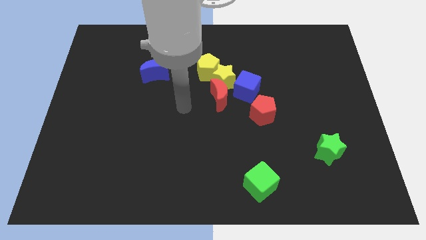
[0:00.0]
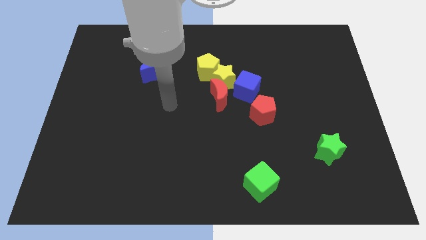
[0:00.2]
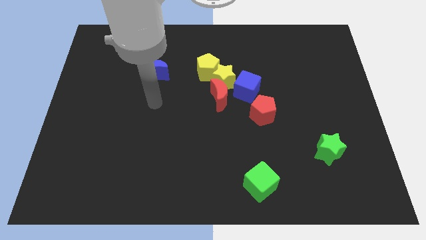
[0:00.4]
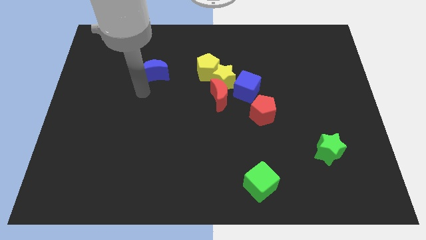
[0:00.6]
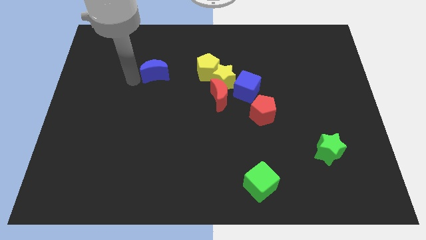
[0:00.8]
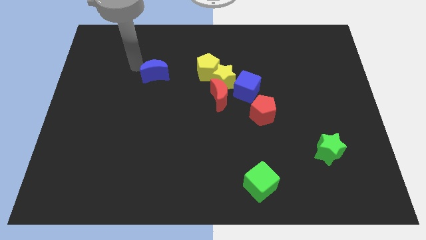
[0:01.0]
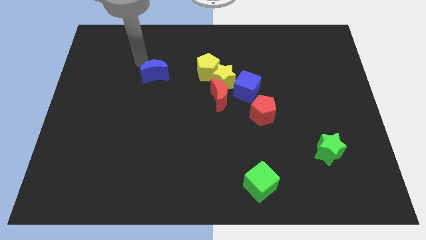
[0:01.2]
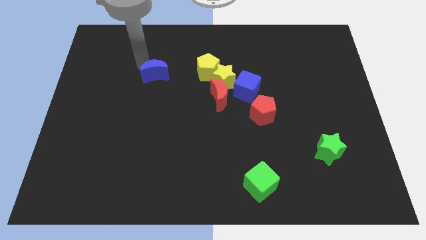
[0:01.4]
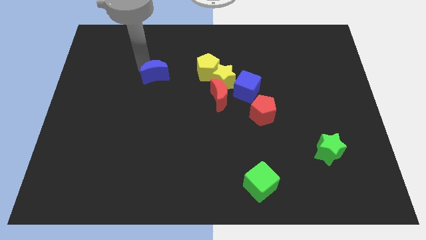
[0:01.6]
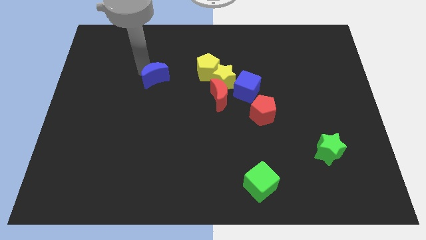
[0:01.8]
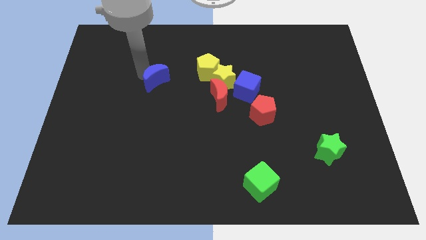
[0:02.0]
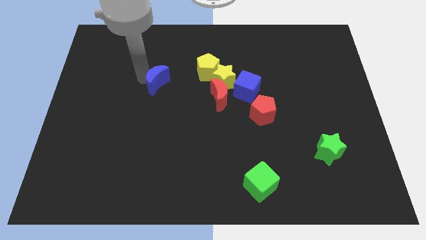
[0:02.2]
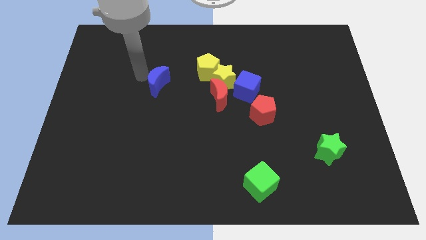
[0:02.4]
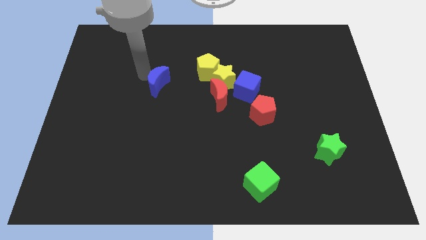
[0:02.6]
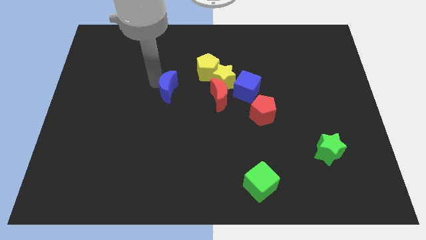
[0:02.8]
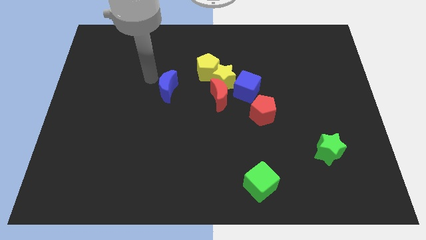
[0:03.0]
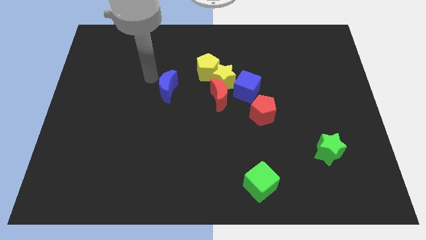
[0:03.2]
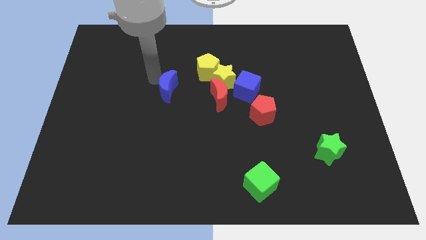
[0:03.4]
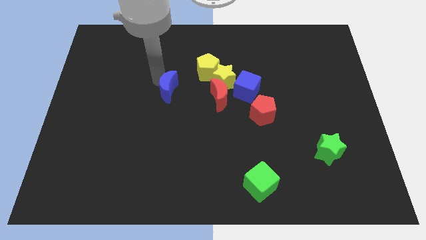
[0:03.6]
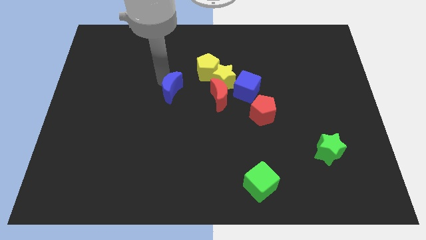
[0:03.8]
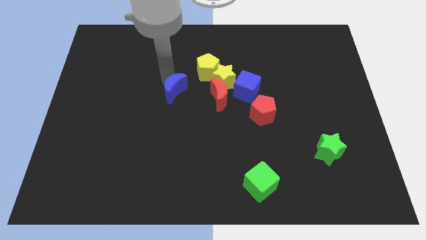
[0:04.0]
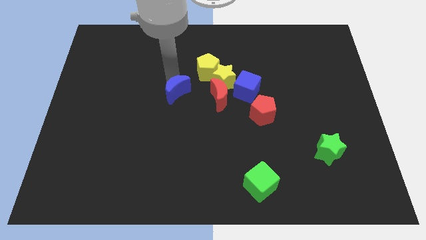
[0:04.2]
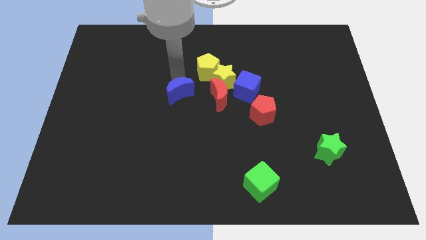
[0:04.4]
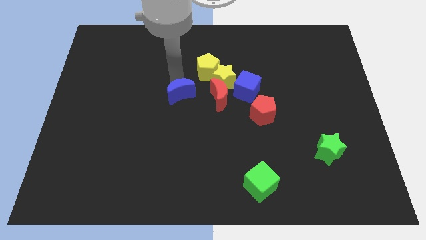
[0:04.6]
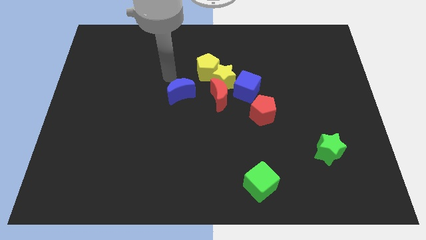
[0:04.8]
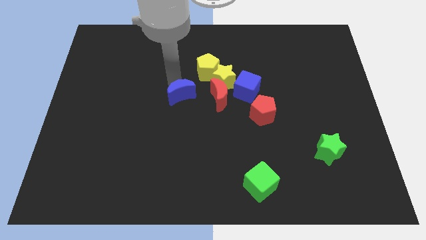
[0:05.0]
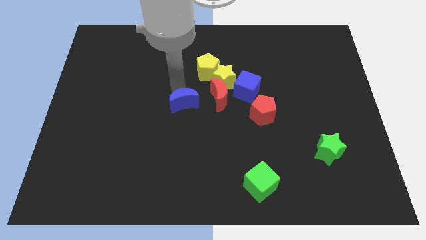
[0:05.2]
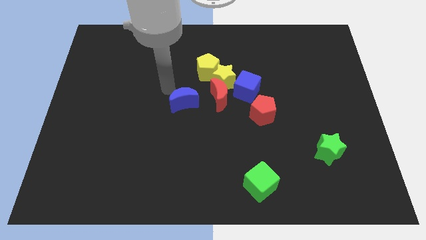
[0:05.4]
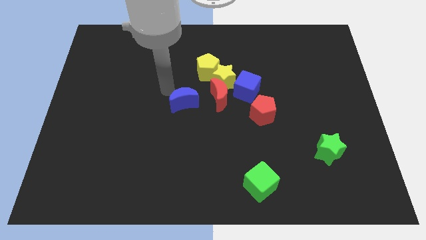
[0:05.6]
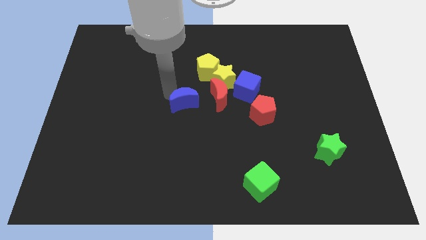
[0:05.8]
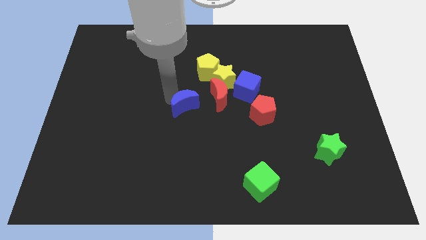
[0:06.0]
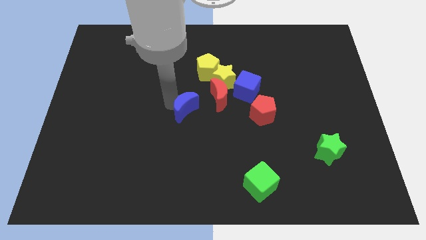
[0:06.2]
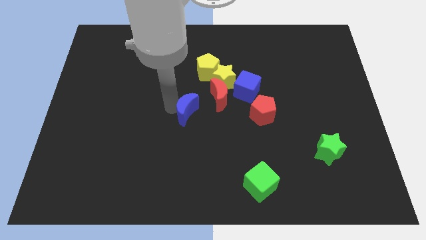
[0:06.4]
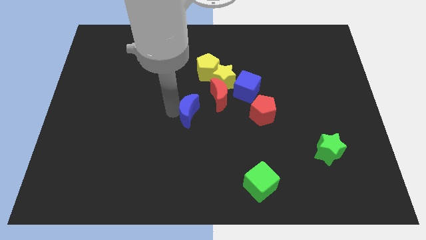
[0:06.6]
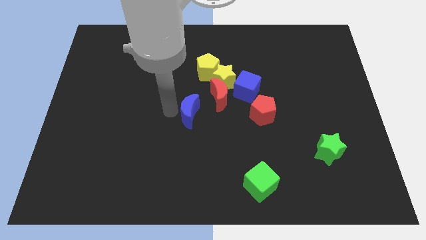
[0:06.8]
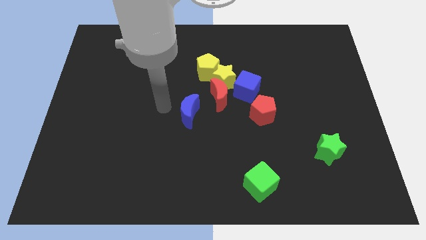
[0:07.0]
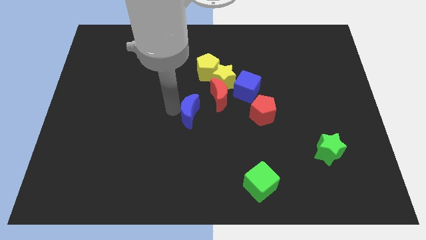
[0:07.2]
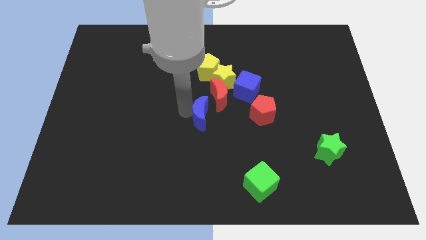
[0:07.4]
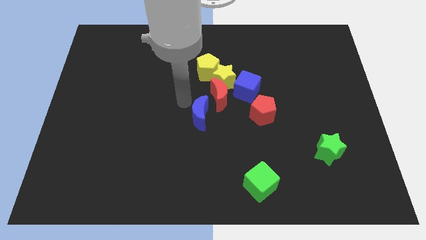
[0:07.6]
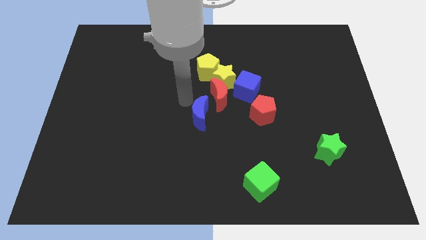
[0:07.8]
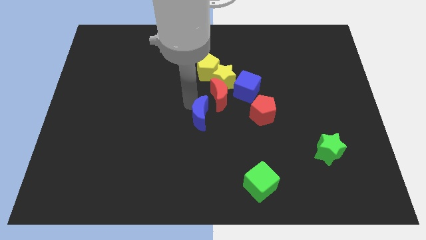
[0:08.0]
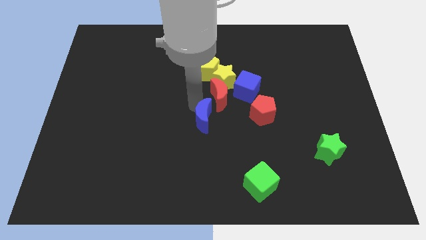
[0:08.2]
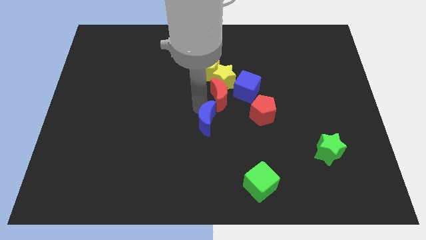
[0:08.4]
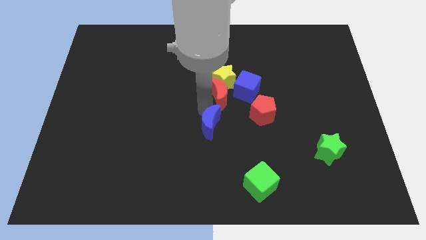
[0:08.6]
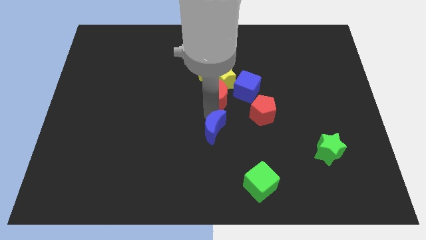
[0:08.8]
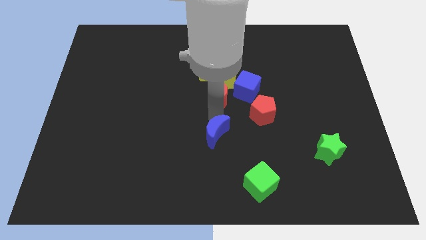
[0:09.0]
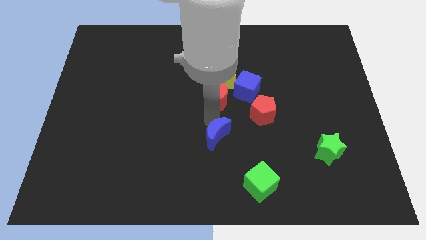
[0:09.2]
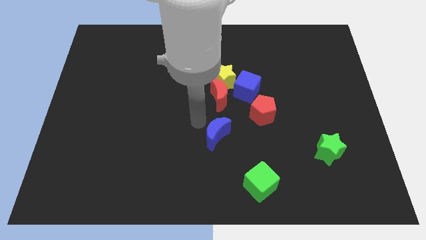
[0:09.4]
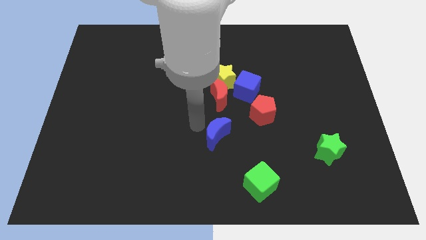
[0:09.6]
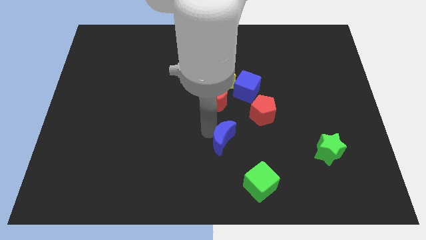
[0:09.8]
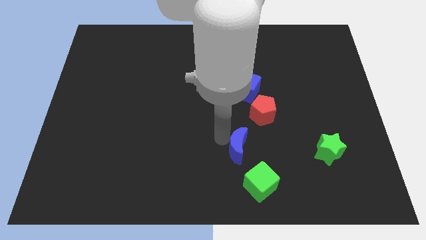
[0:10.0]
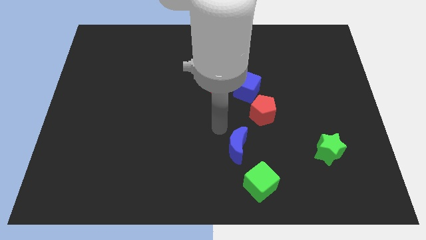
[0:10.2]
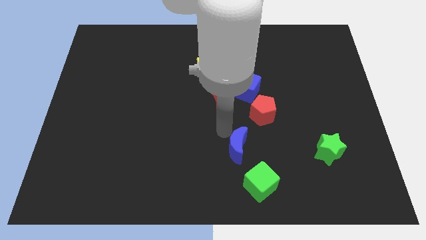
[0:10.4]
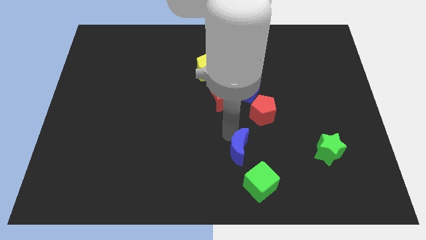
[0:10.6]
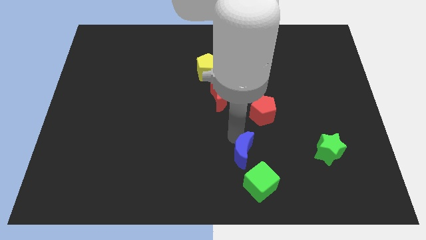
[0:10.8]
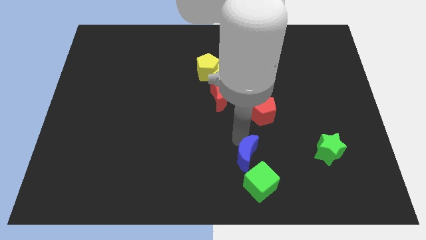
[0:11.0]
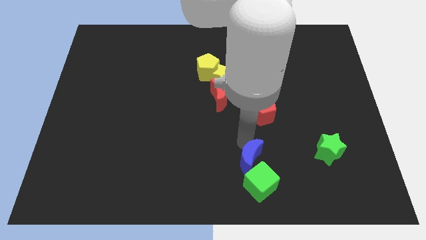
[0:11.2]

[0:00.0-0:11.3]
put the blue moon towards the green cube

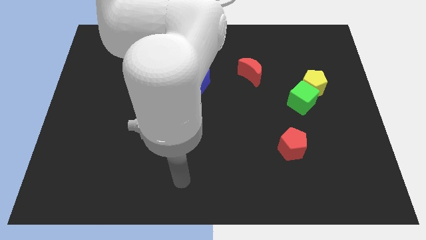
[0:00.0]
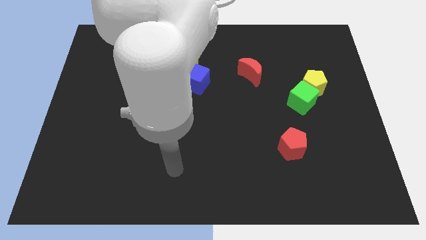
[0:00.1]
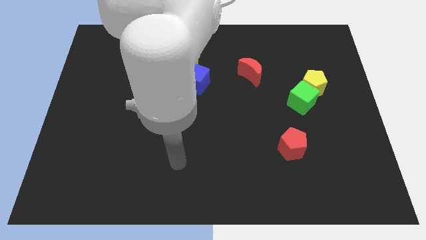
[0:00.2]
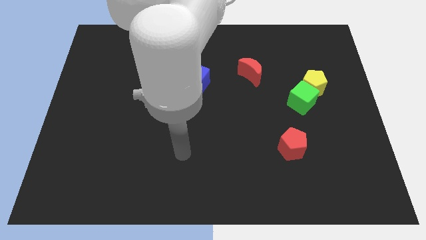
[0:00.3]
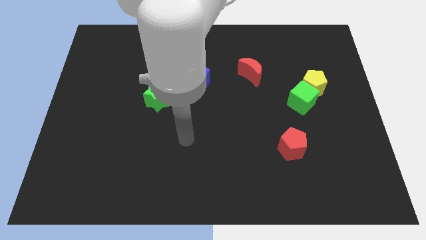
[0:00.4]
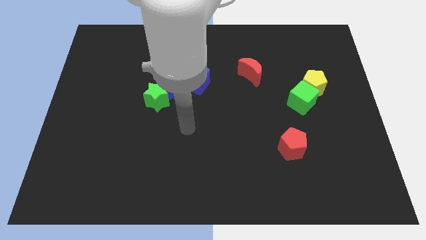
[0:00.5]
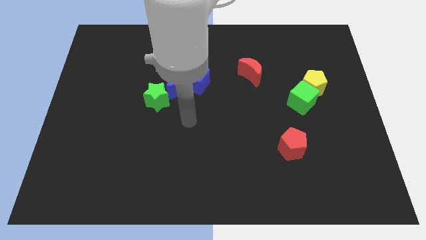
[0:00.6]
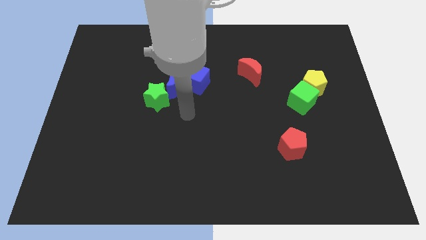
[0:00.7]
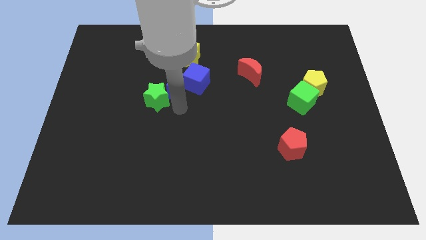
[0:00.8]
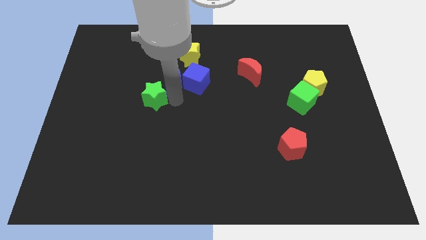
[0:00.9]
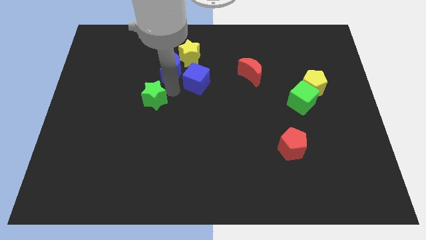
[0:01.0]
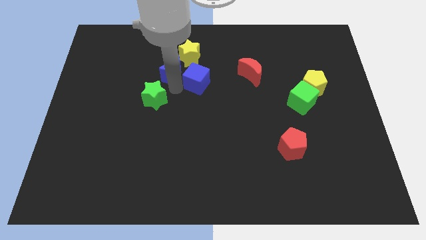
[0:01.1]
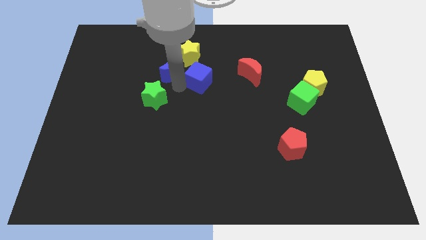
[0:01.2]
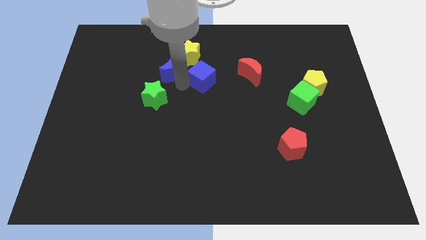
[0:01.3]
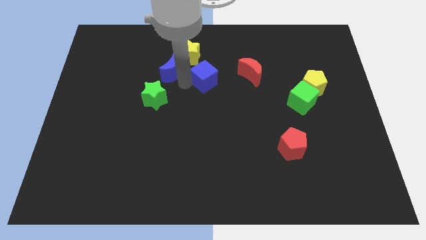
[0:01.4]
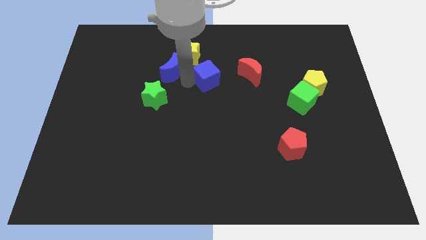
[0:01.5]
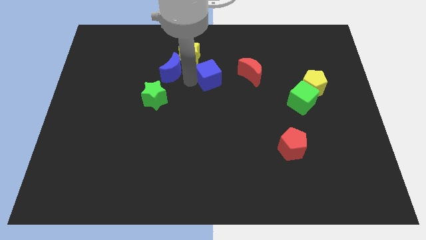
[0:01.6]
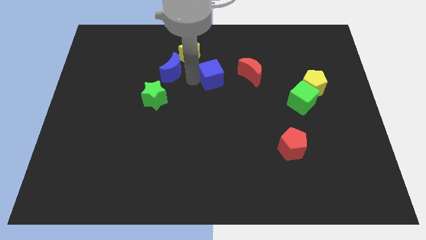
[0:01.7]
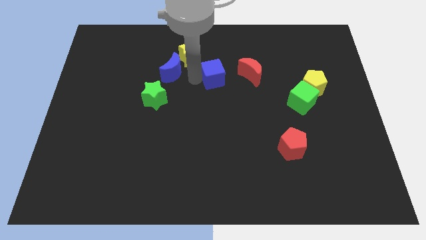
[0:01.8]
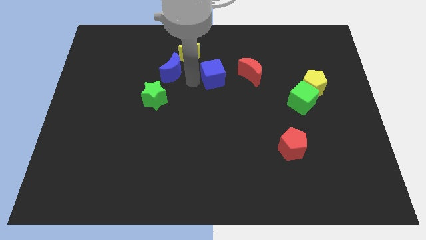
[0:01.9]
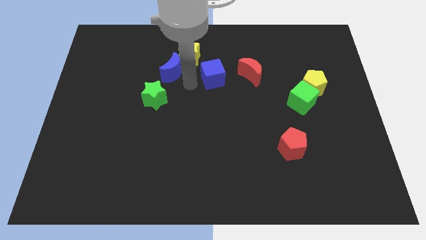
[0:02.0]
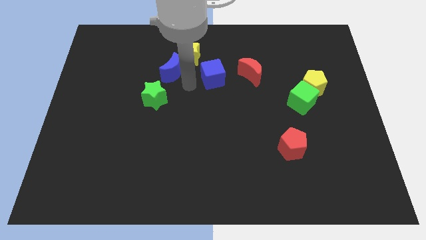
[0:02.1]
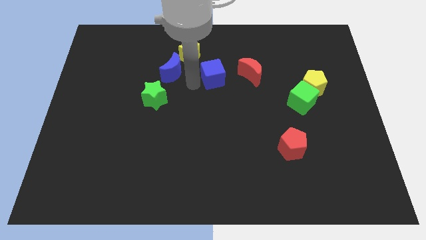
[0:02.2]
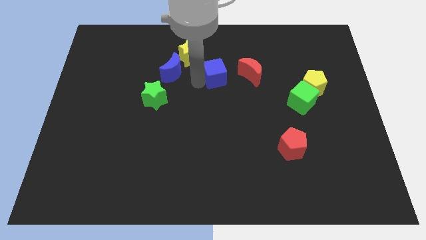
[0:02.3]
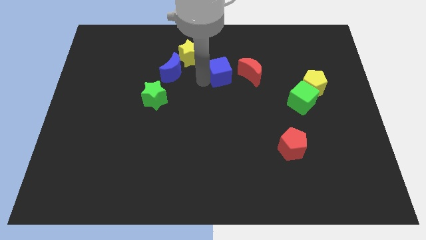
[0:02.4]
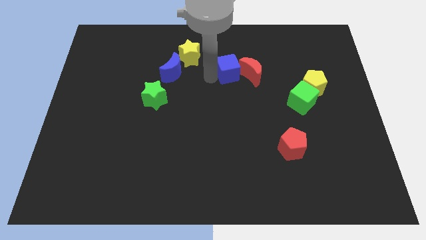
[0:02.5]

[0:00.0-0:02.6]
move the blue cube to the red moon
